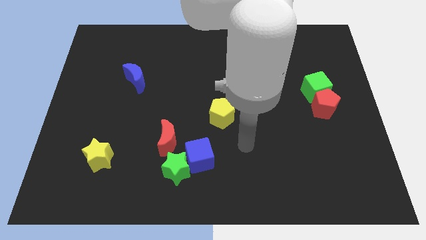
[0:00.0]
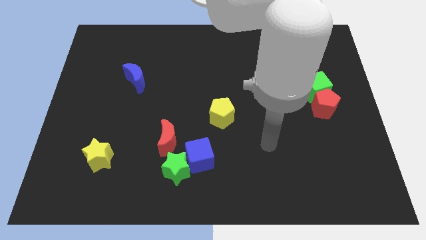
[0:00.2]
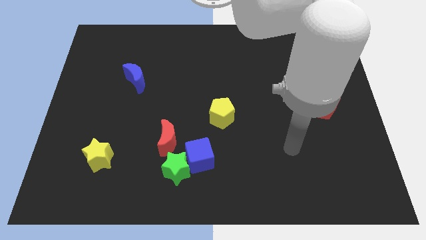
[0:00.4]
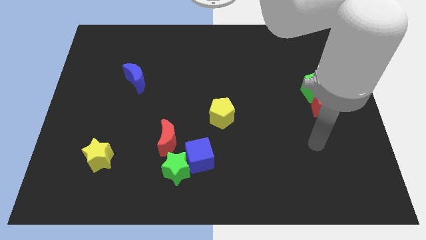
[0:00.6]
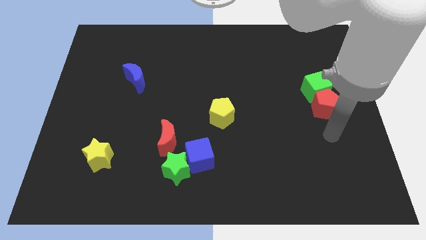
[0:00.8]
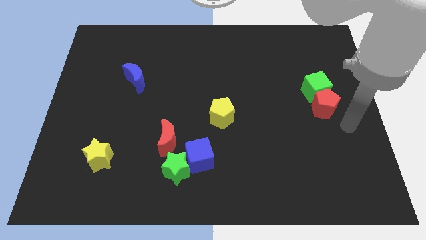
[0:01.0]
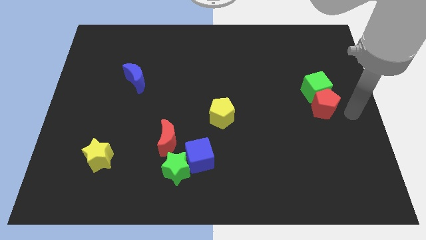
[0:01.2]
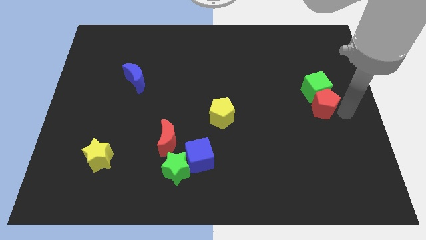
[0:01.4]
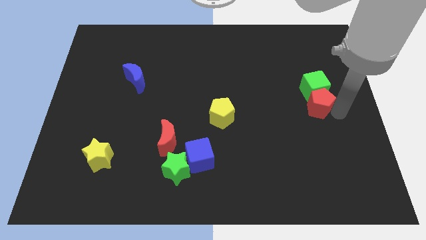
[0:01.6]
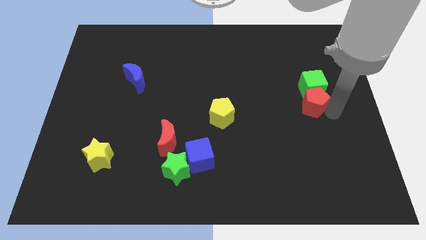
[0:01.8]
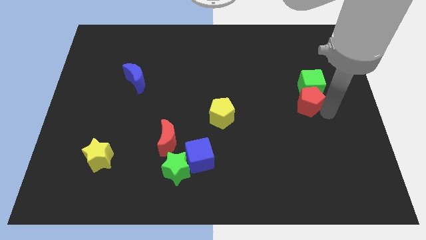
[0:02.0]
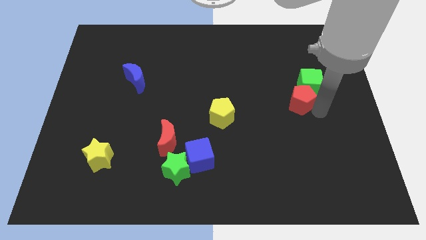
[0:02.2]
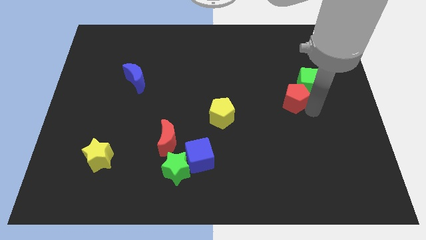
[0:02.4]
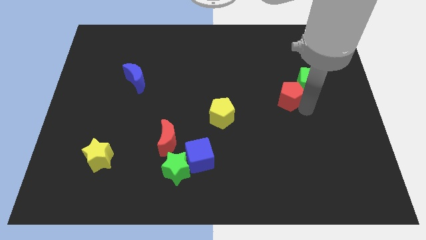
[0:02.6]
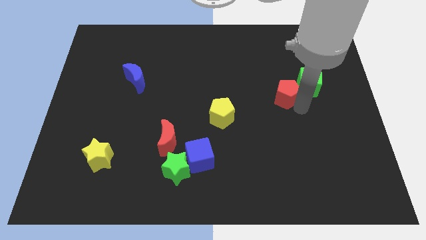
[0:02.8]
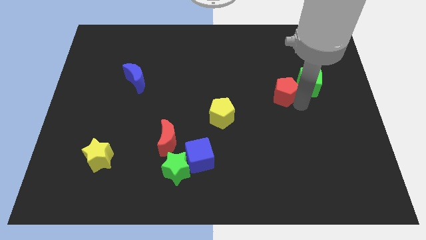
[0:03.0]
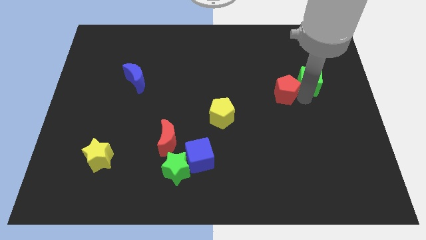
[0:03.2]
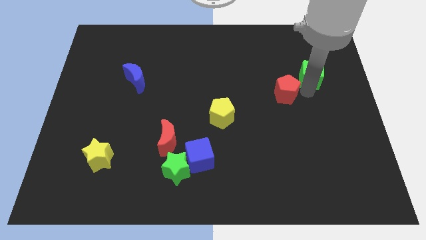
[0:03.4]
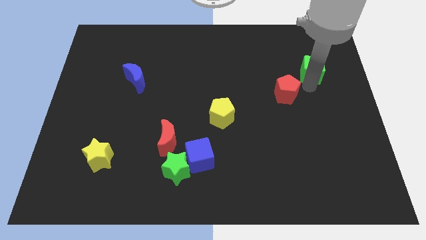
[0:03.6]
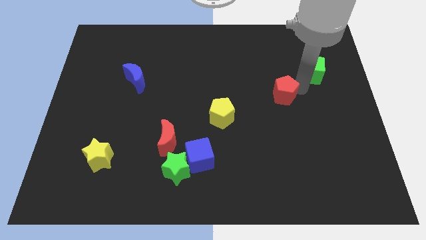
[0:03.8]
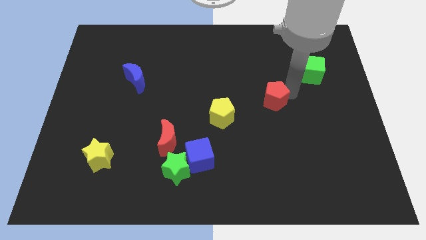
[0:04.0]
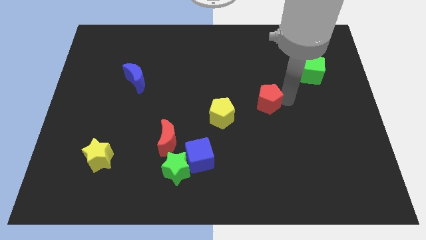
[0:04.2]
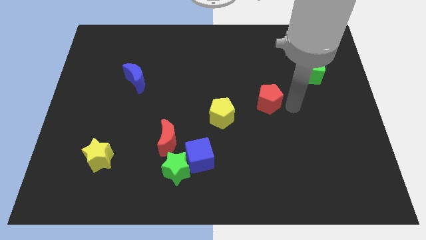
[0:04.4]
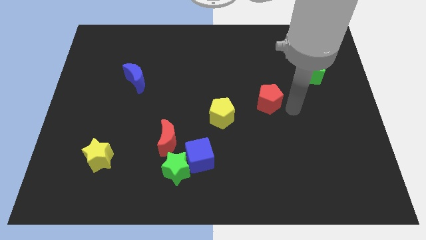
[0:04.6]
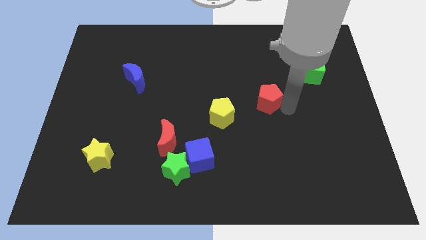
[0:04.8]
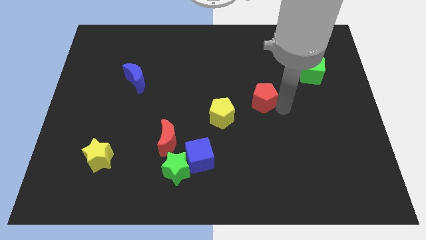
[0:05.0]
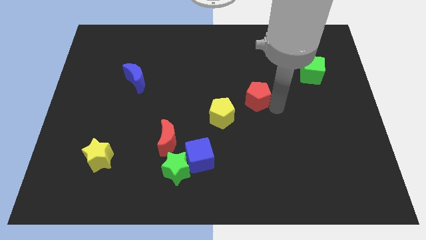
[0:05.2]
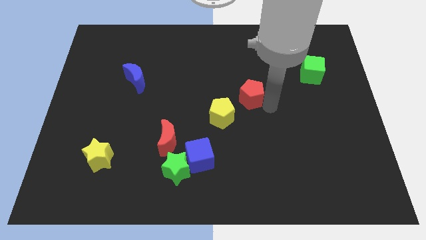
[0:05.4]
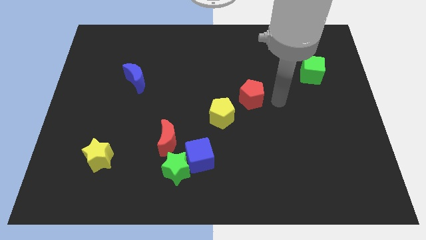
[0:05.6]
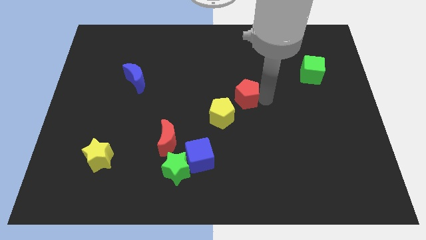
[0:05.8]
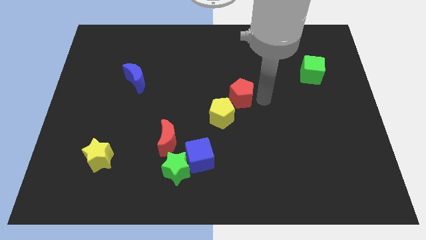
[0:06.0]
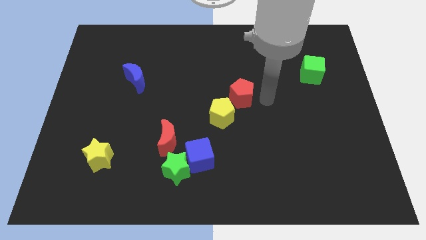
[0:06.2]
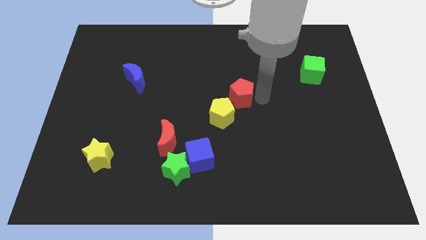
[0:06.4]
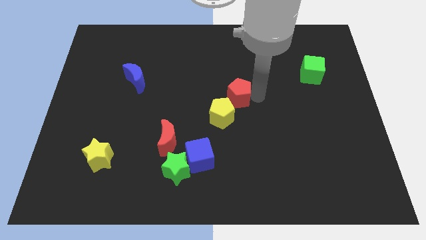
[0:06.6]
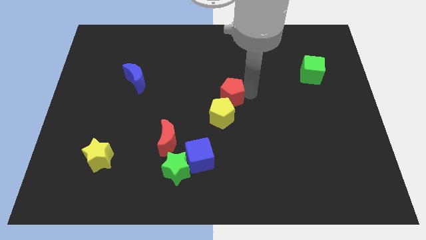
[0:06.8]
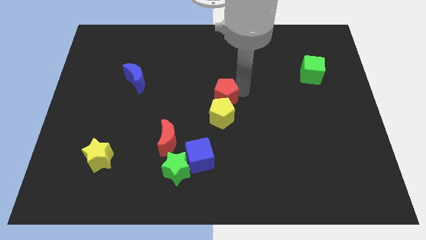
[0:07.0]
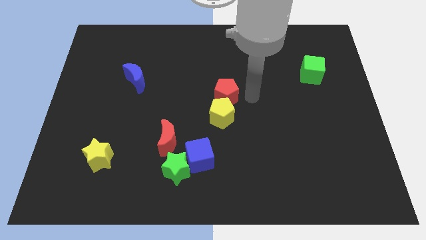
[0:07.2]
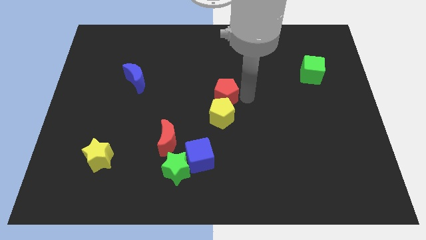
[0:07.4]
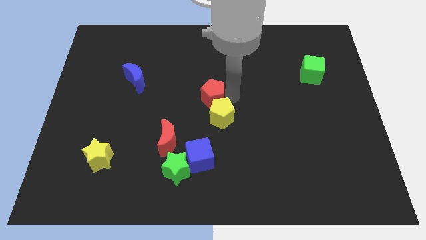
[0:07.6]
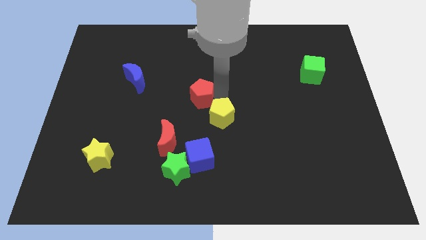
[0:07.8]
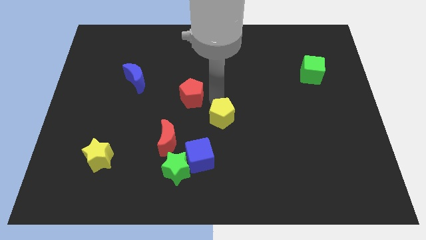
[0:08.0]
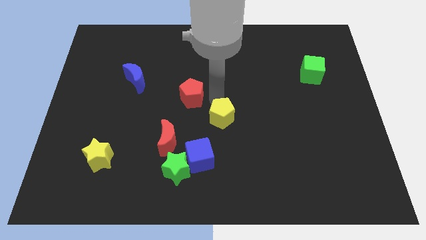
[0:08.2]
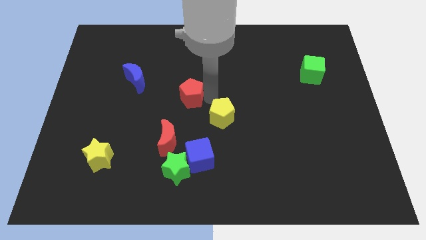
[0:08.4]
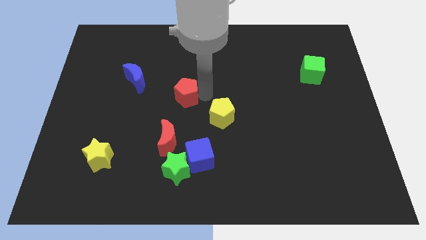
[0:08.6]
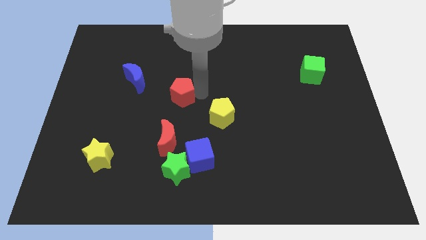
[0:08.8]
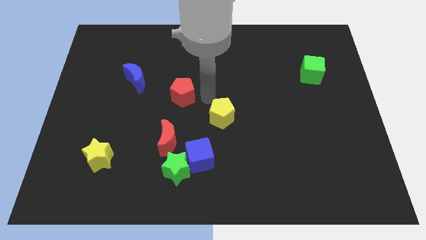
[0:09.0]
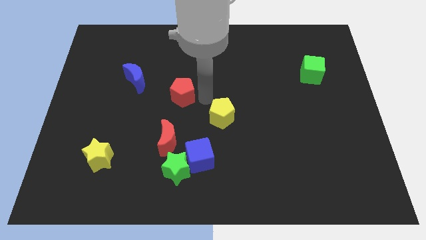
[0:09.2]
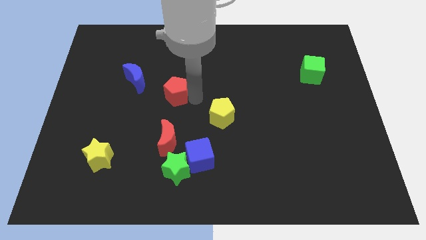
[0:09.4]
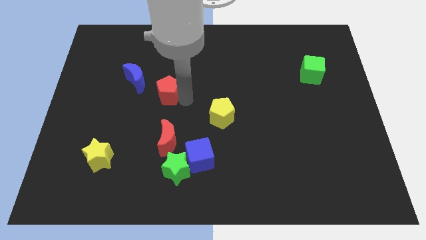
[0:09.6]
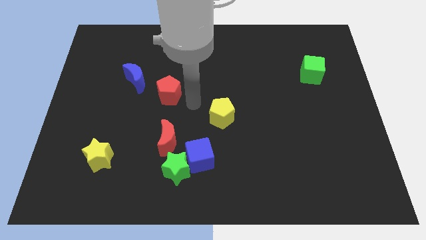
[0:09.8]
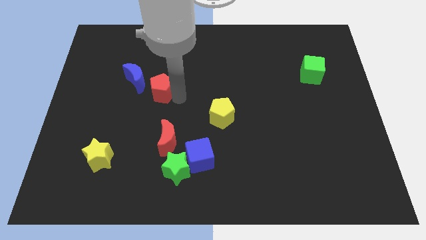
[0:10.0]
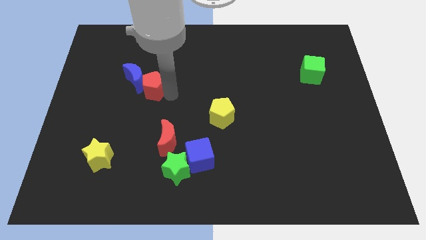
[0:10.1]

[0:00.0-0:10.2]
slide the red pentagon close to the blue moon

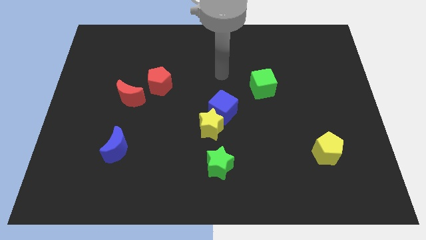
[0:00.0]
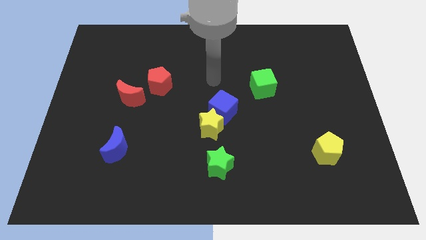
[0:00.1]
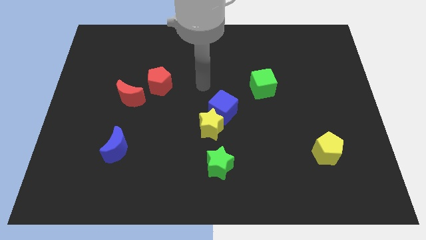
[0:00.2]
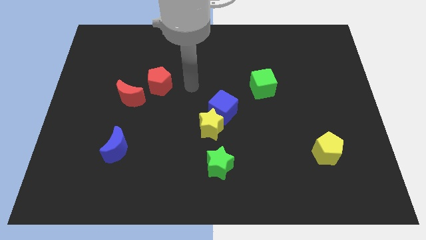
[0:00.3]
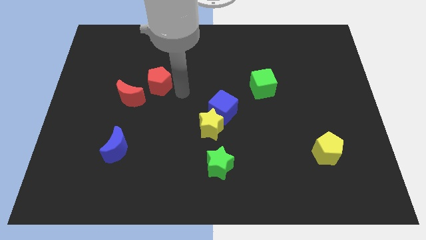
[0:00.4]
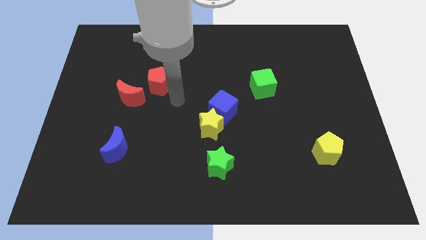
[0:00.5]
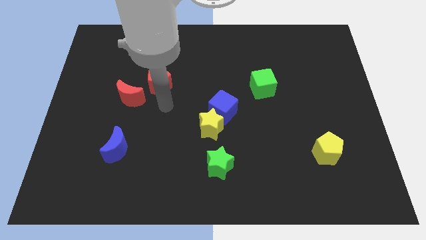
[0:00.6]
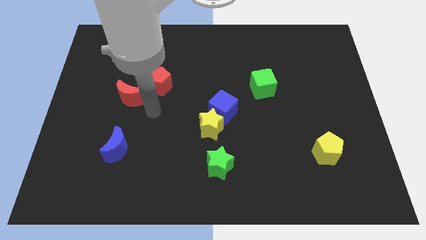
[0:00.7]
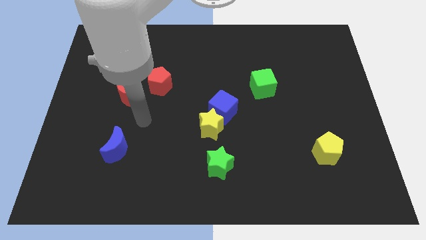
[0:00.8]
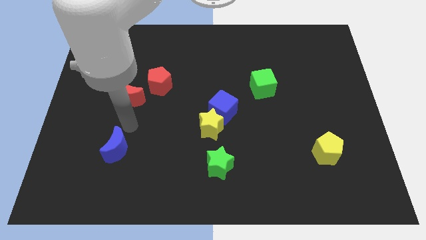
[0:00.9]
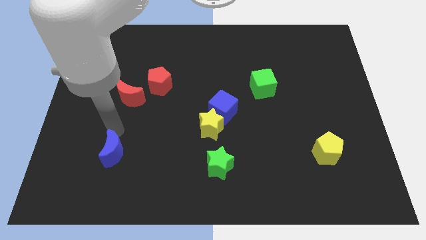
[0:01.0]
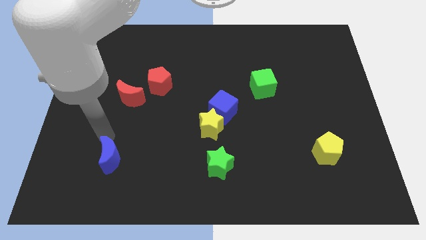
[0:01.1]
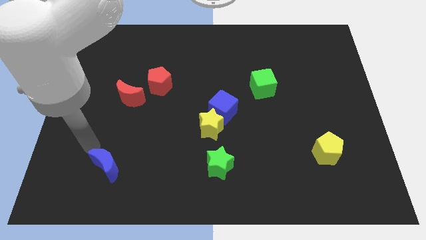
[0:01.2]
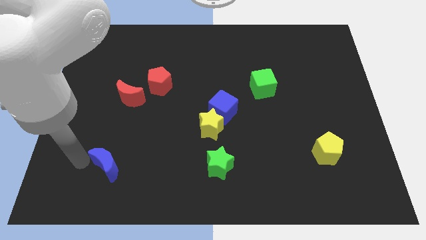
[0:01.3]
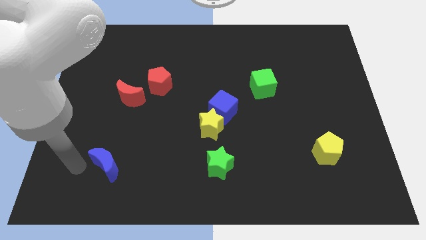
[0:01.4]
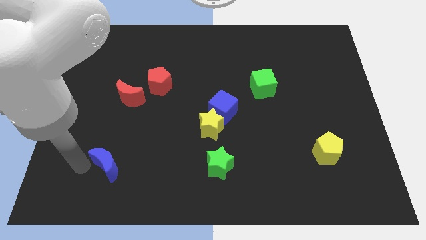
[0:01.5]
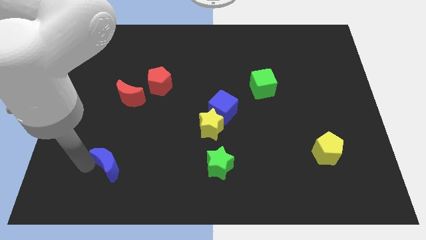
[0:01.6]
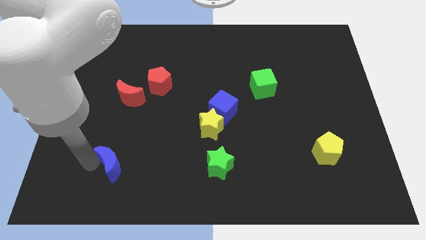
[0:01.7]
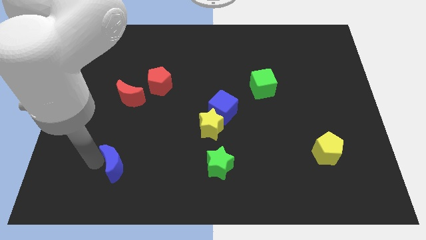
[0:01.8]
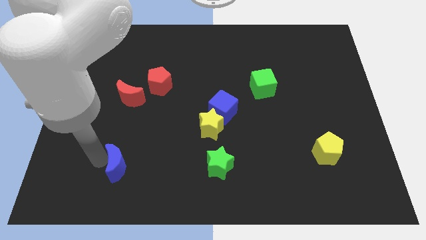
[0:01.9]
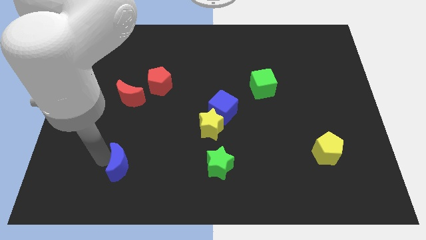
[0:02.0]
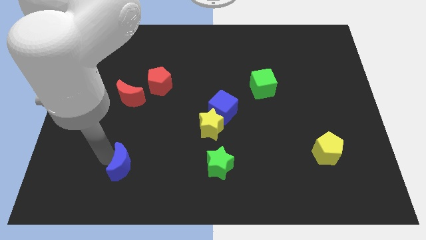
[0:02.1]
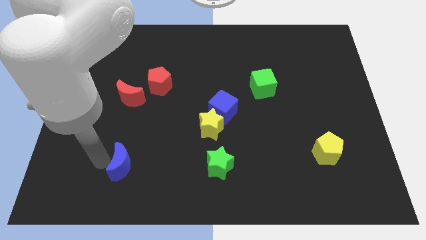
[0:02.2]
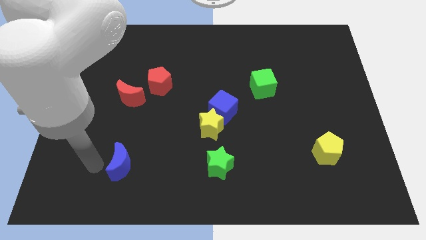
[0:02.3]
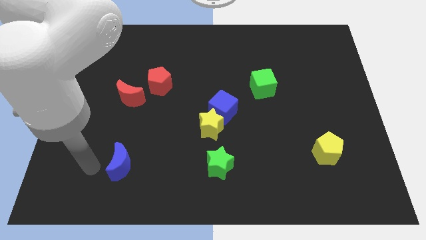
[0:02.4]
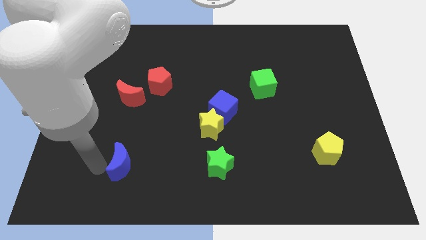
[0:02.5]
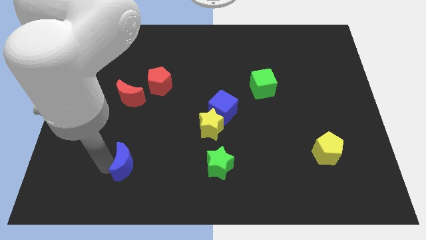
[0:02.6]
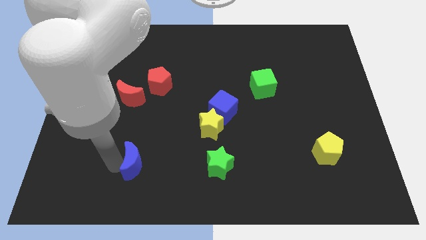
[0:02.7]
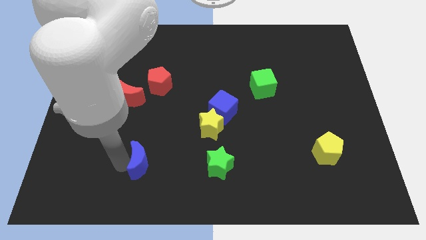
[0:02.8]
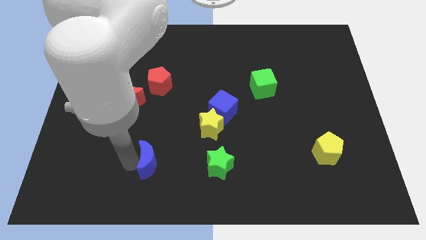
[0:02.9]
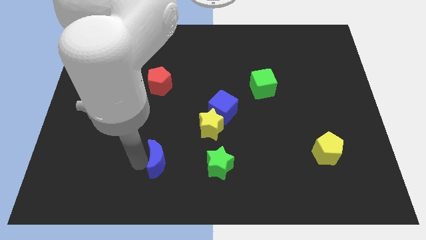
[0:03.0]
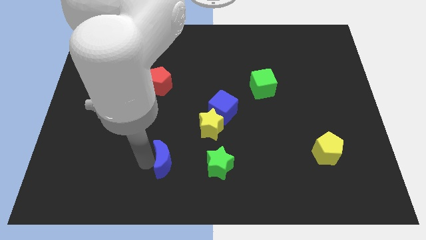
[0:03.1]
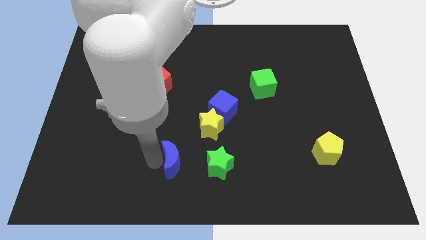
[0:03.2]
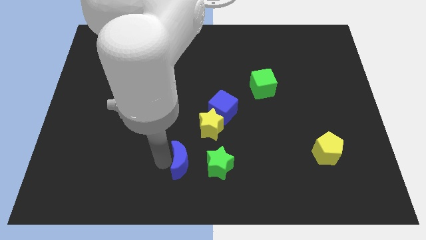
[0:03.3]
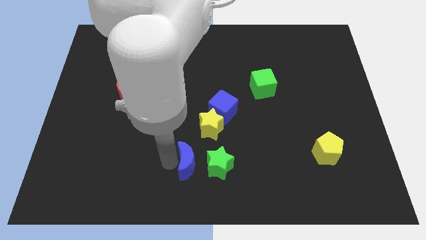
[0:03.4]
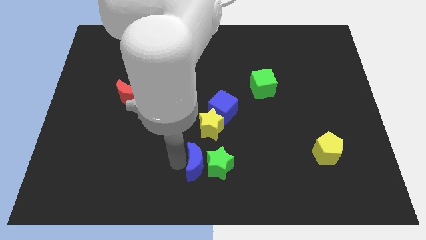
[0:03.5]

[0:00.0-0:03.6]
move the blue moon close to the green star
